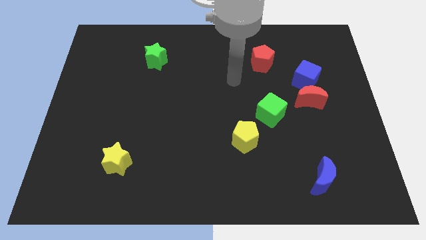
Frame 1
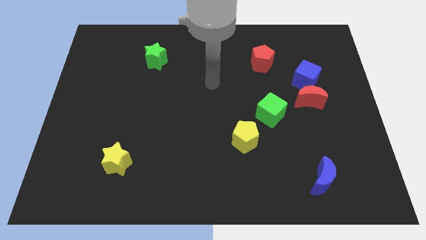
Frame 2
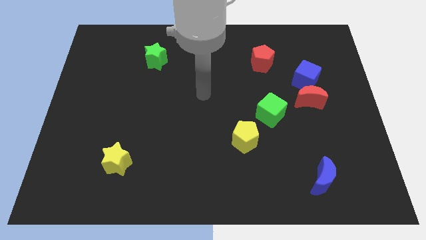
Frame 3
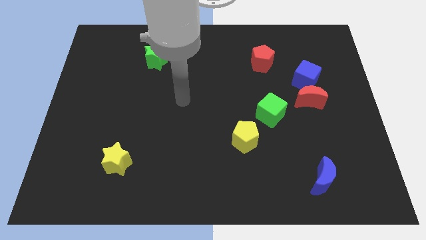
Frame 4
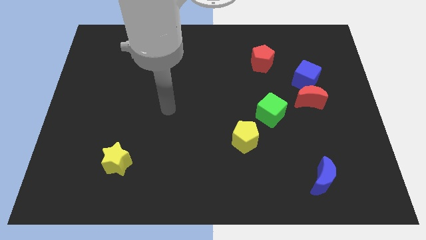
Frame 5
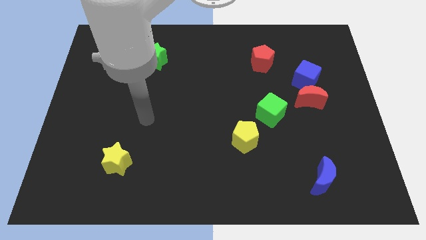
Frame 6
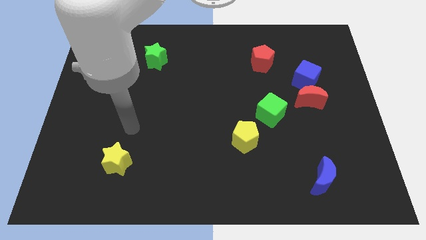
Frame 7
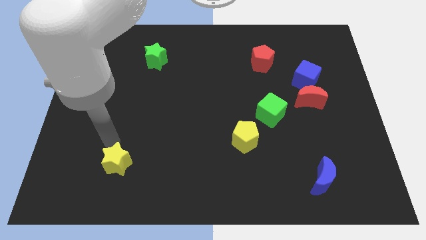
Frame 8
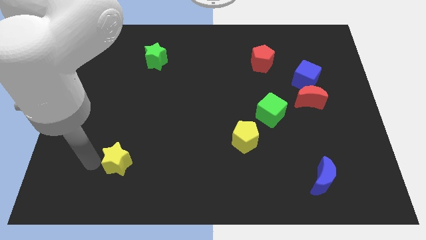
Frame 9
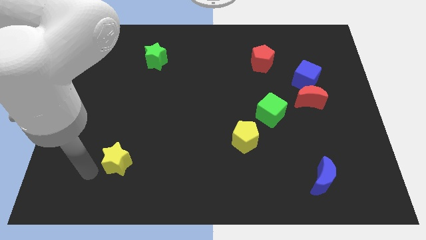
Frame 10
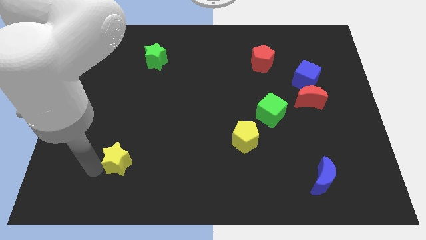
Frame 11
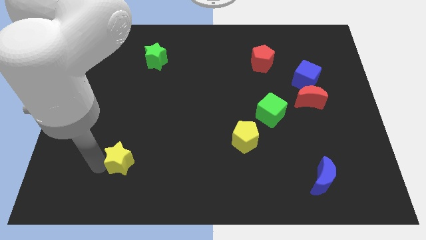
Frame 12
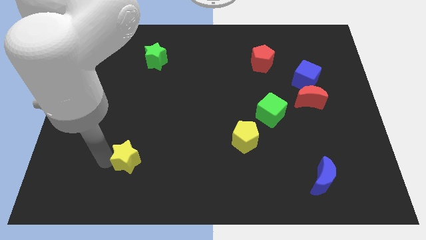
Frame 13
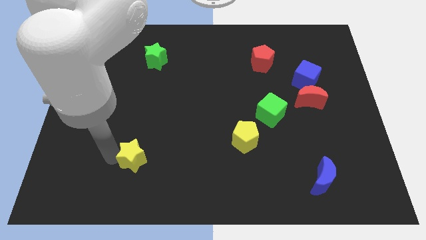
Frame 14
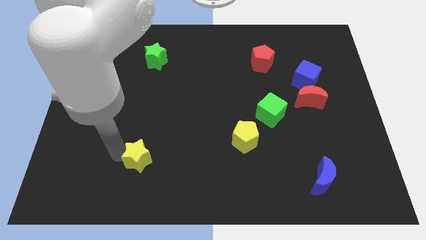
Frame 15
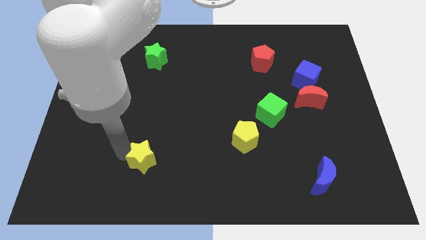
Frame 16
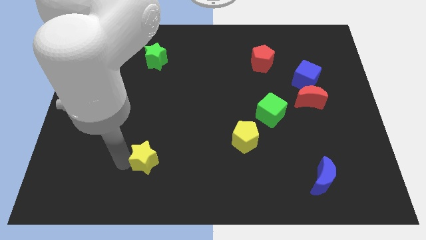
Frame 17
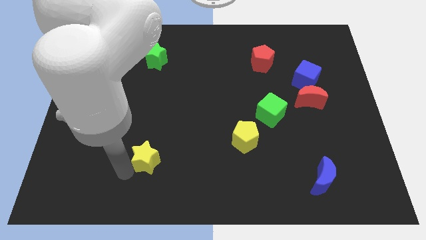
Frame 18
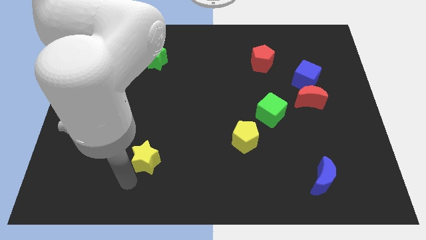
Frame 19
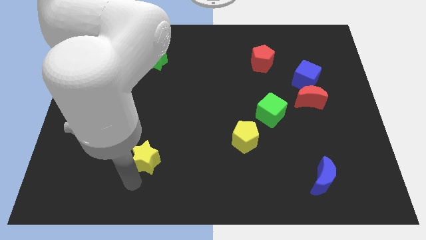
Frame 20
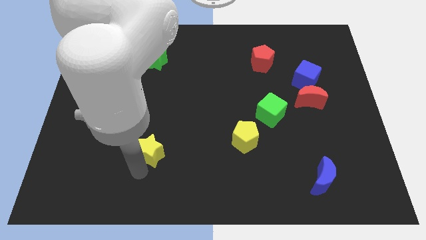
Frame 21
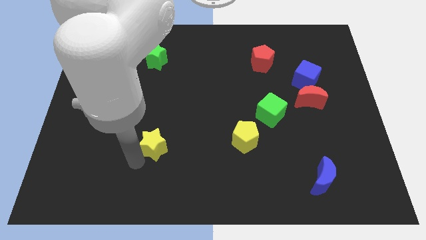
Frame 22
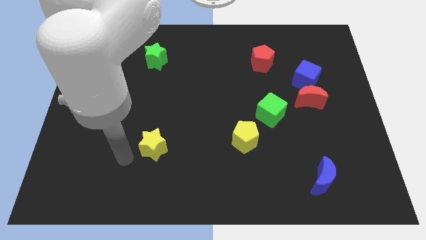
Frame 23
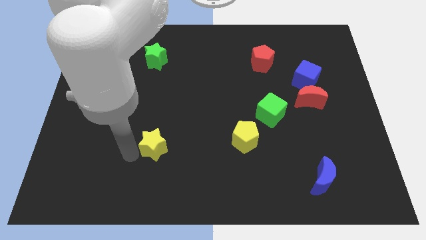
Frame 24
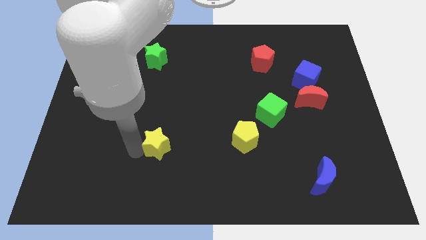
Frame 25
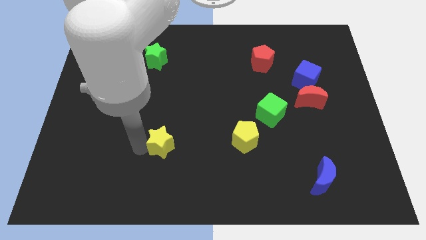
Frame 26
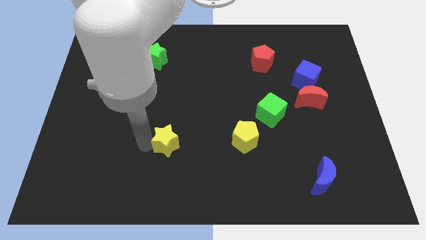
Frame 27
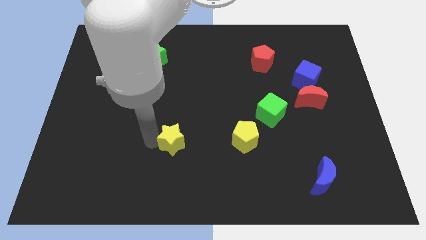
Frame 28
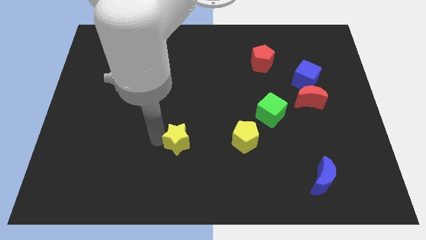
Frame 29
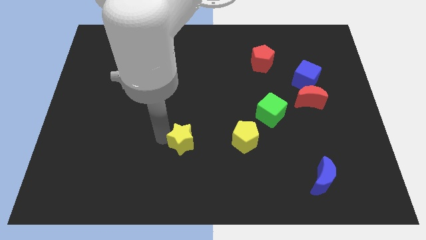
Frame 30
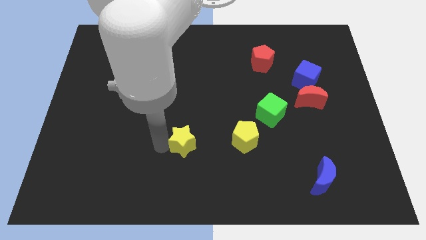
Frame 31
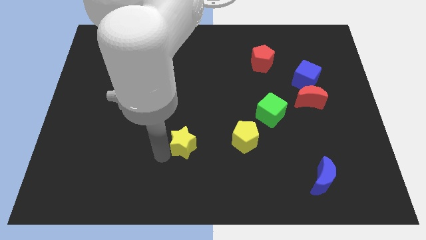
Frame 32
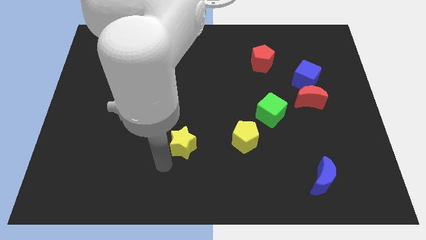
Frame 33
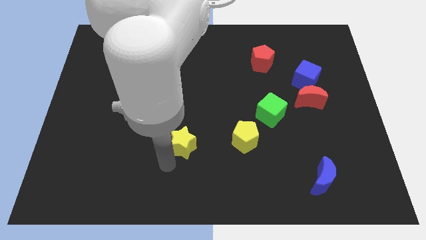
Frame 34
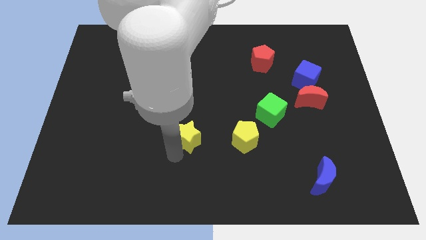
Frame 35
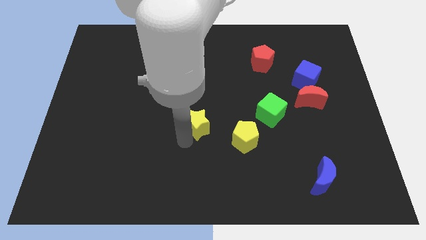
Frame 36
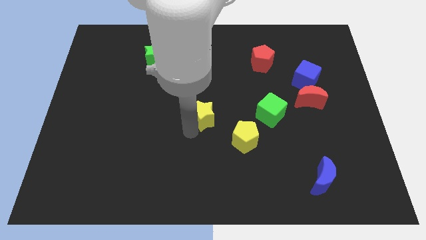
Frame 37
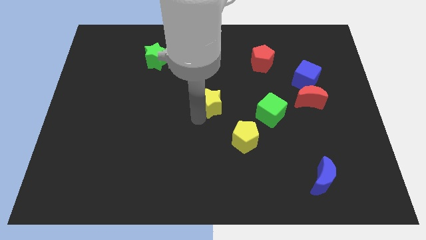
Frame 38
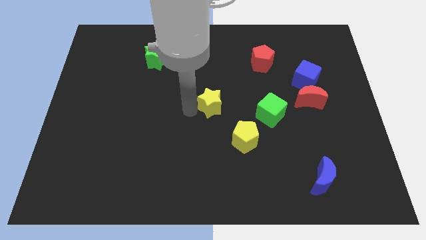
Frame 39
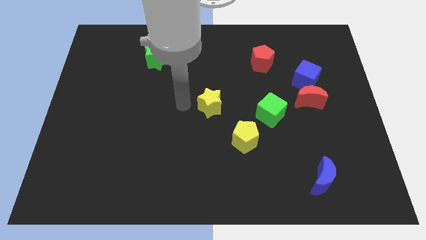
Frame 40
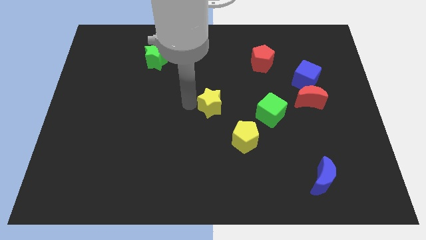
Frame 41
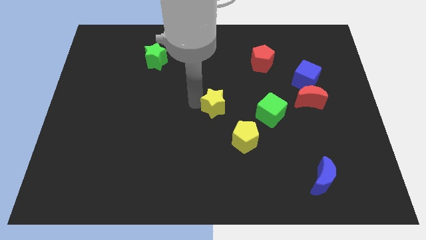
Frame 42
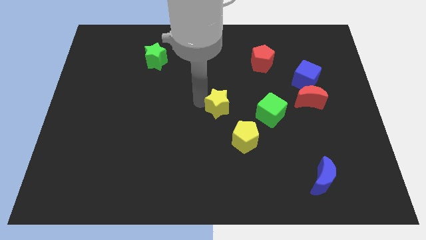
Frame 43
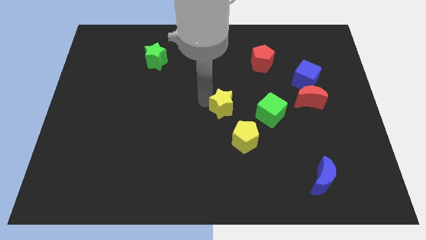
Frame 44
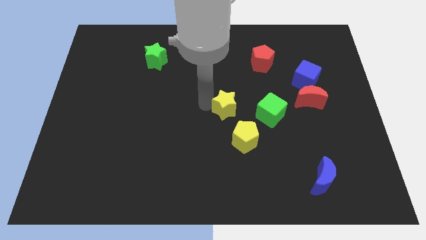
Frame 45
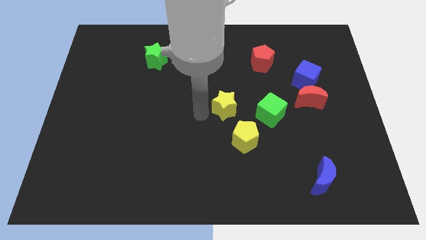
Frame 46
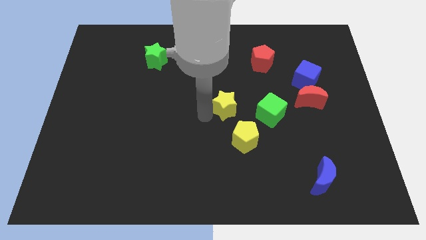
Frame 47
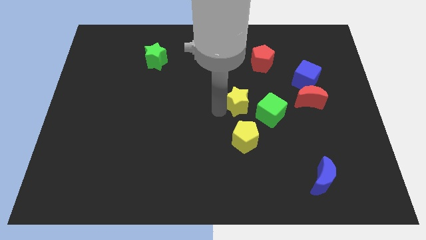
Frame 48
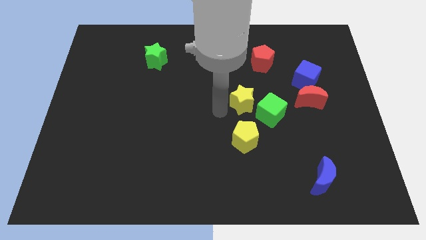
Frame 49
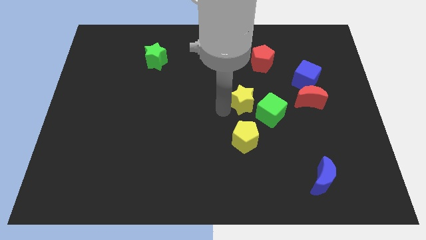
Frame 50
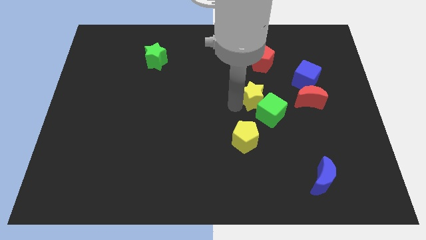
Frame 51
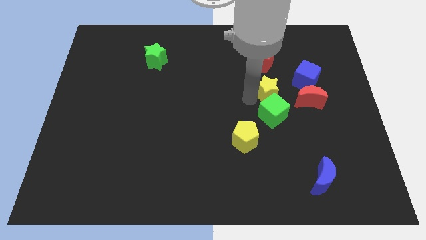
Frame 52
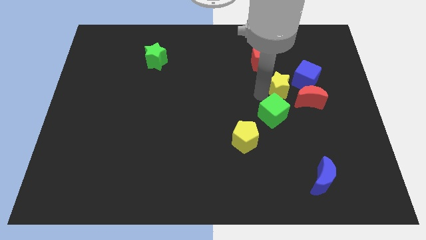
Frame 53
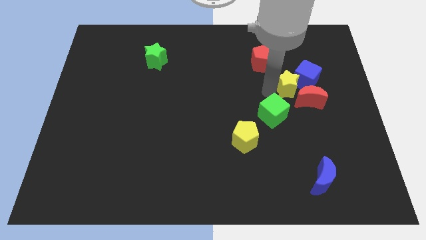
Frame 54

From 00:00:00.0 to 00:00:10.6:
slide the yellow star close to the blue cube

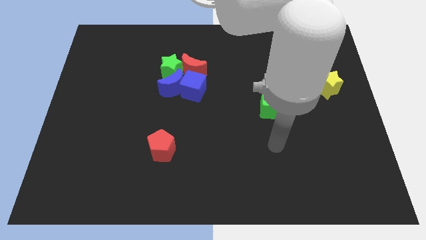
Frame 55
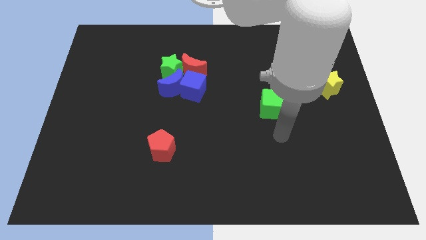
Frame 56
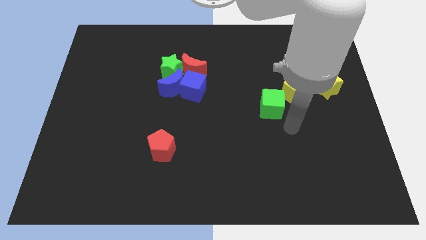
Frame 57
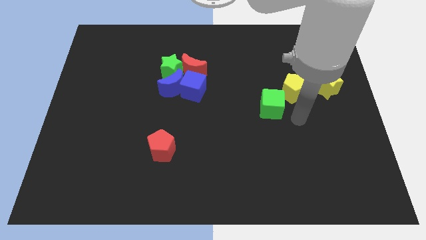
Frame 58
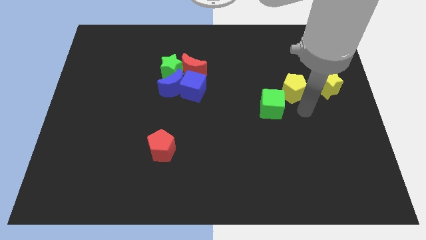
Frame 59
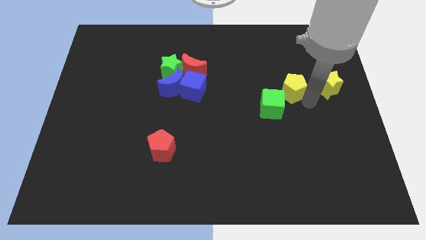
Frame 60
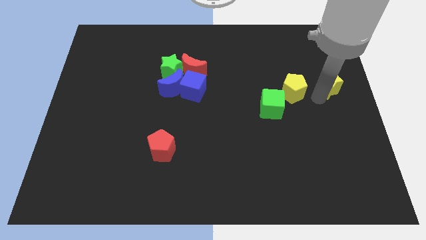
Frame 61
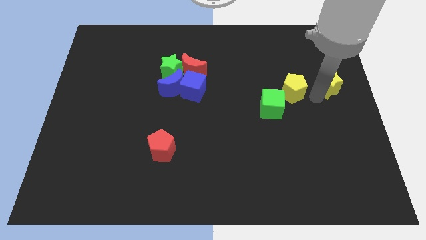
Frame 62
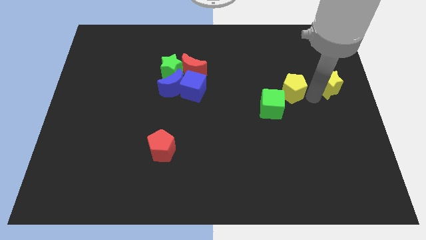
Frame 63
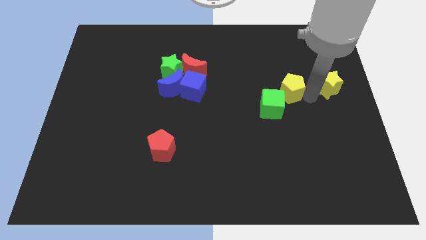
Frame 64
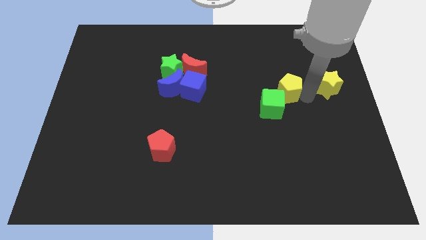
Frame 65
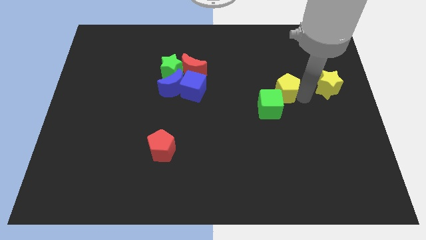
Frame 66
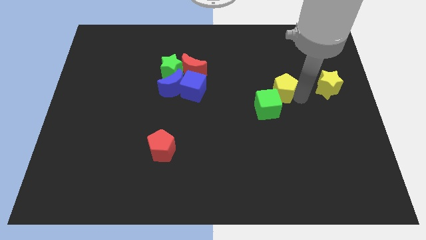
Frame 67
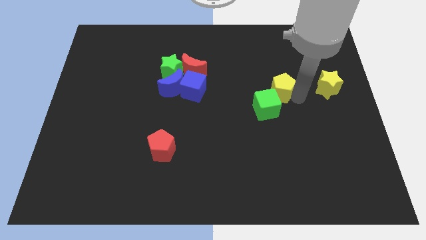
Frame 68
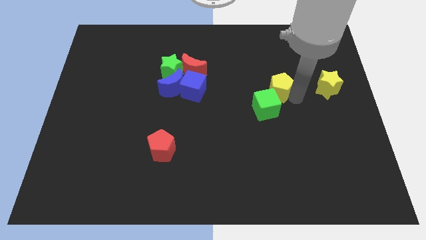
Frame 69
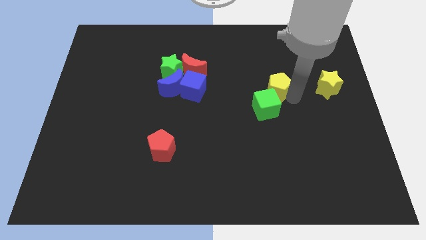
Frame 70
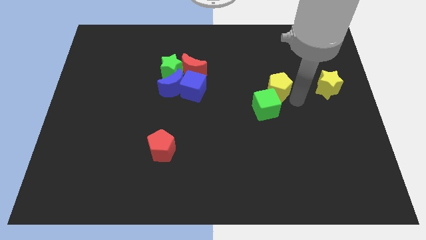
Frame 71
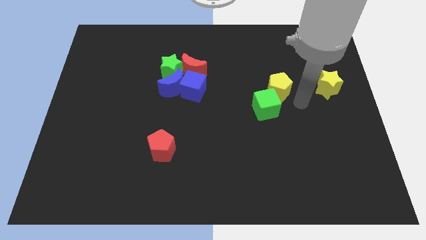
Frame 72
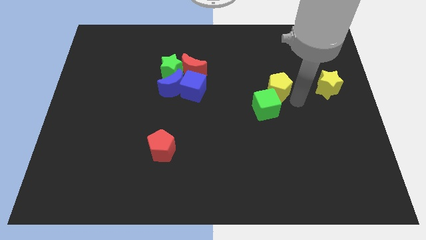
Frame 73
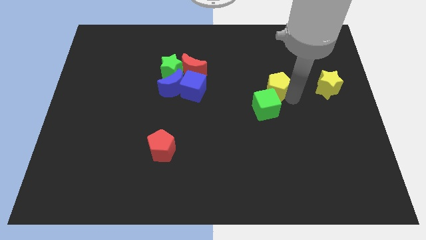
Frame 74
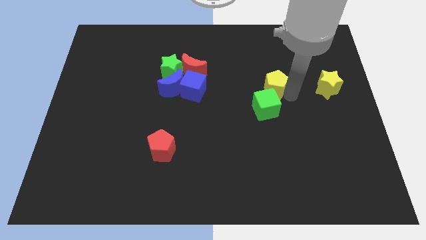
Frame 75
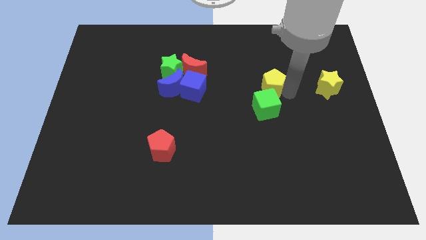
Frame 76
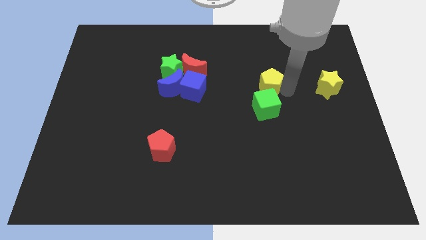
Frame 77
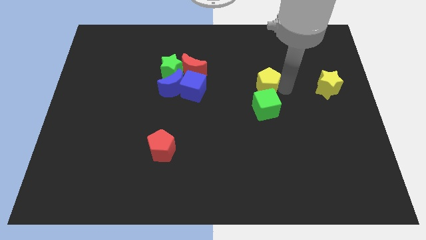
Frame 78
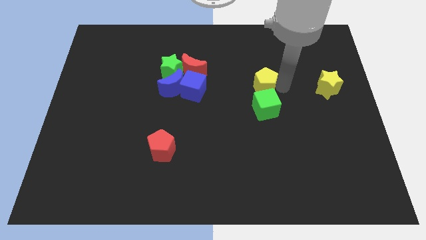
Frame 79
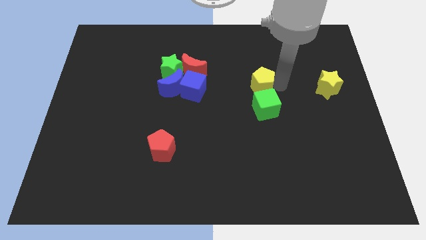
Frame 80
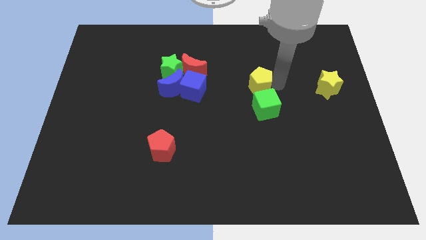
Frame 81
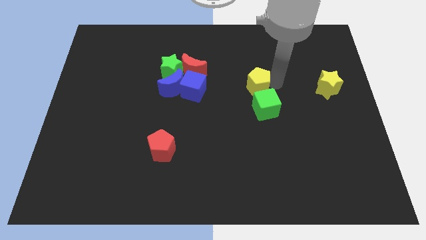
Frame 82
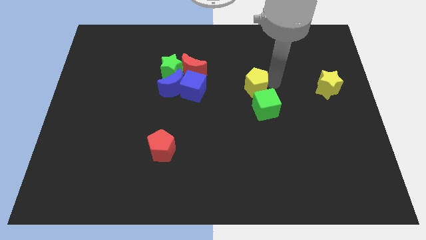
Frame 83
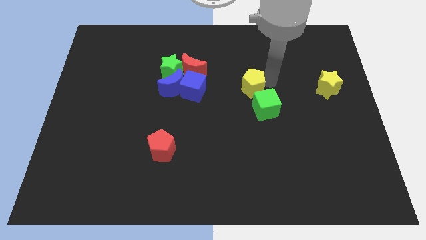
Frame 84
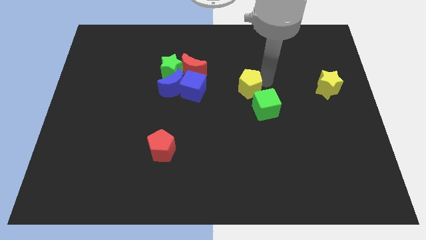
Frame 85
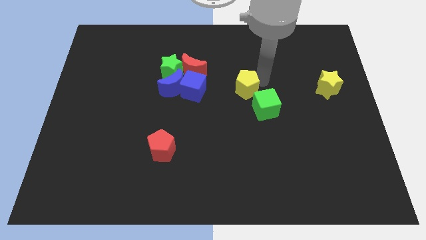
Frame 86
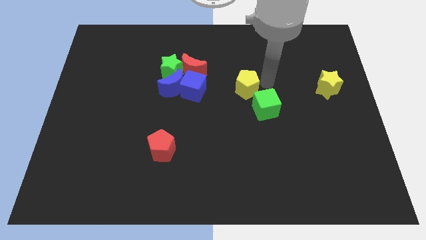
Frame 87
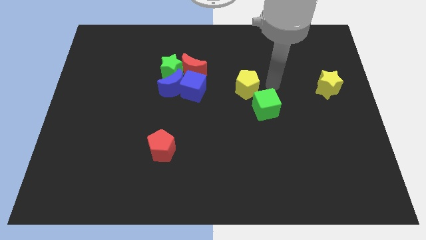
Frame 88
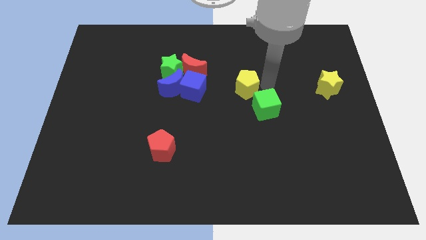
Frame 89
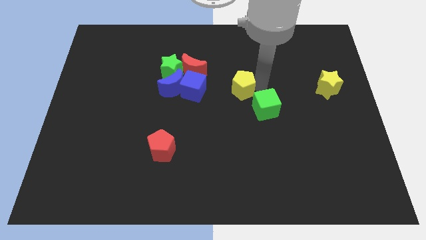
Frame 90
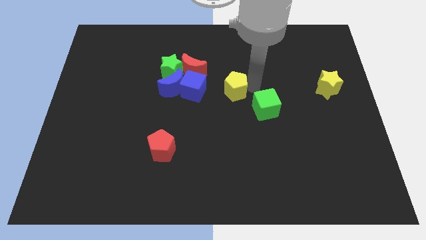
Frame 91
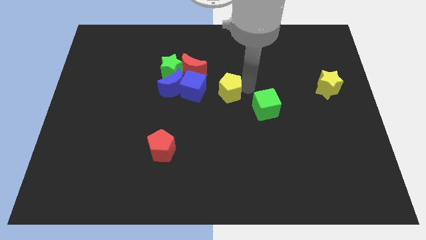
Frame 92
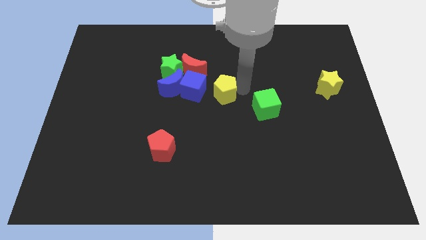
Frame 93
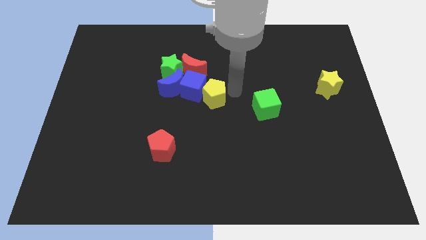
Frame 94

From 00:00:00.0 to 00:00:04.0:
move the yellow pentagon close to the blue cube
